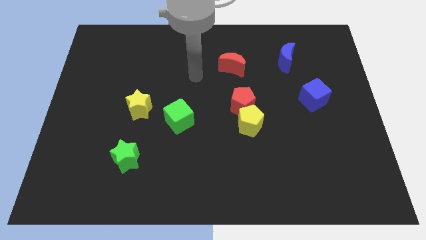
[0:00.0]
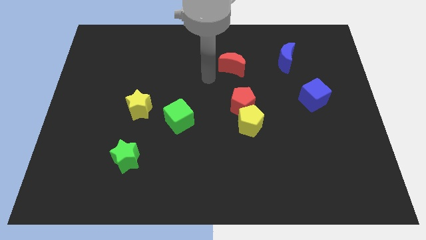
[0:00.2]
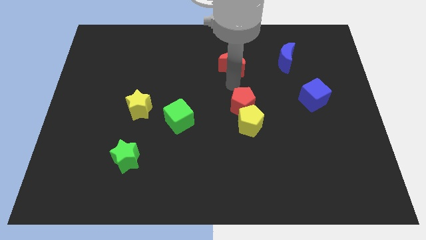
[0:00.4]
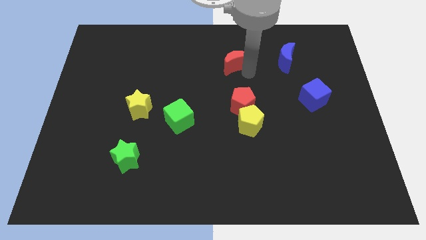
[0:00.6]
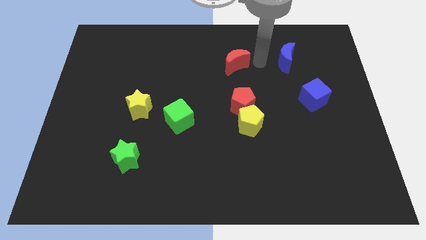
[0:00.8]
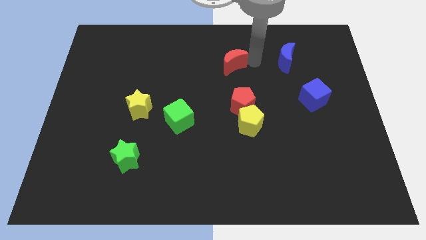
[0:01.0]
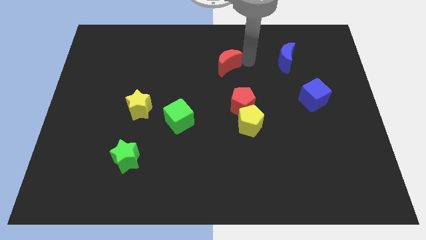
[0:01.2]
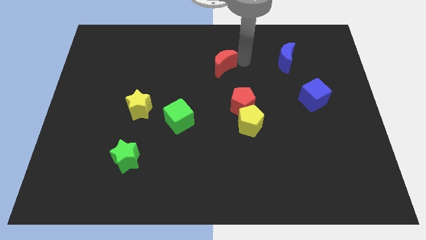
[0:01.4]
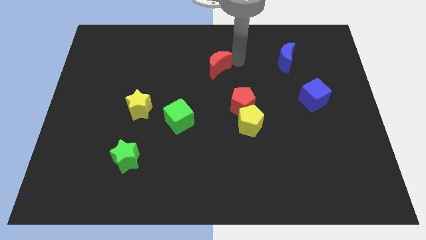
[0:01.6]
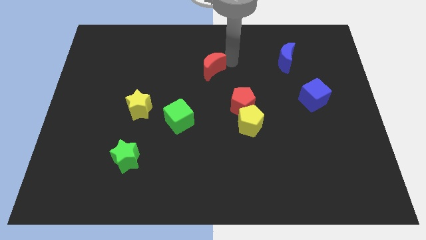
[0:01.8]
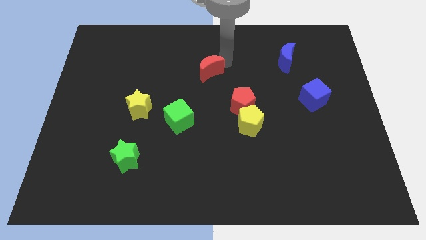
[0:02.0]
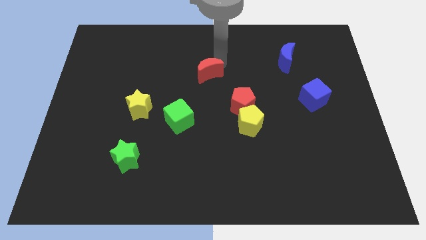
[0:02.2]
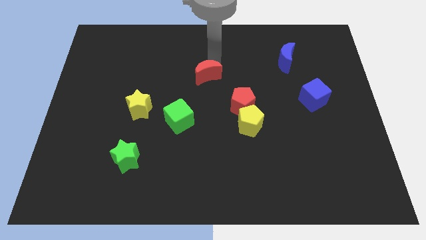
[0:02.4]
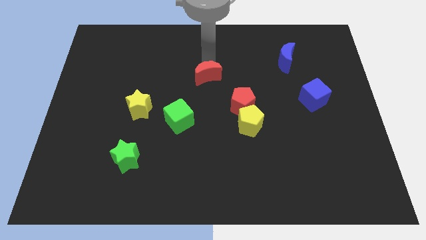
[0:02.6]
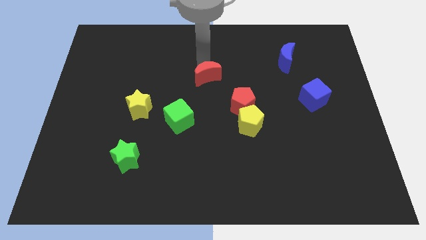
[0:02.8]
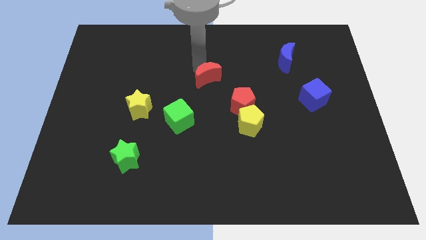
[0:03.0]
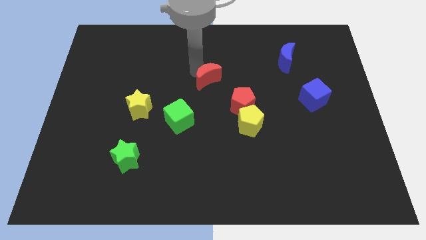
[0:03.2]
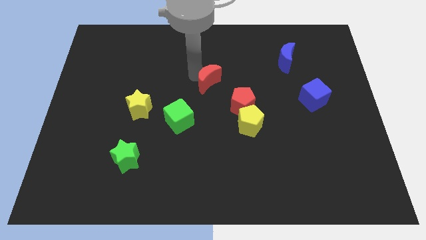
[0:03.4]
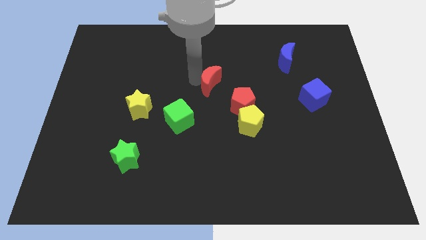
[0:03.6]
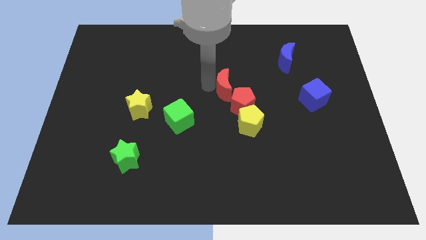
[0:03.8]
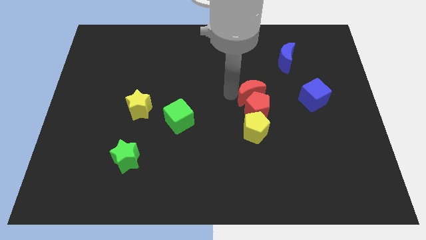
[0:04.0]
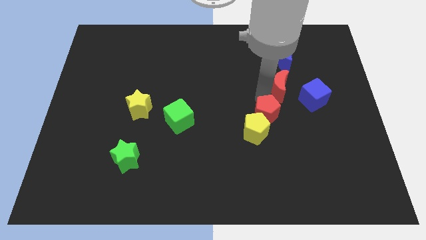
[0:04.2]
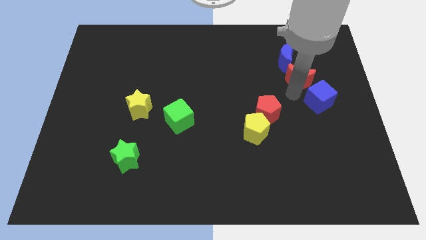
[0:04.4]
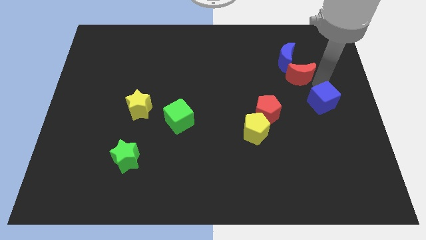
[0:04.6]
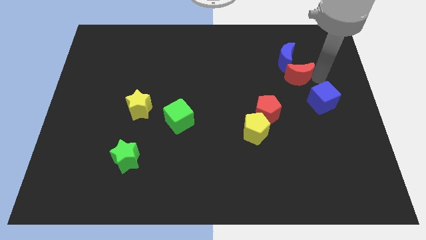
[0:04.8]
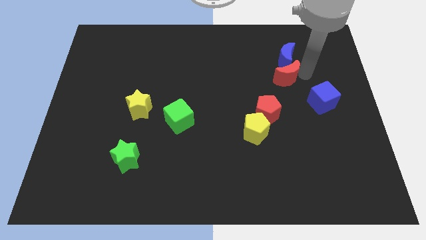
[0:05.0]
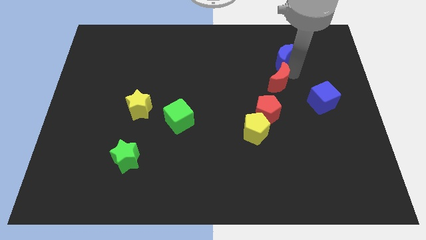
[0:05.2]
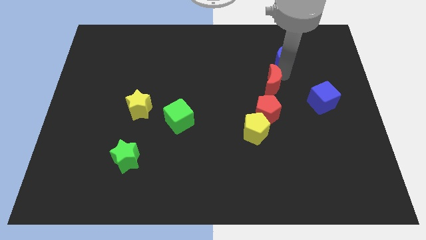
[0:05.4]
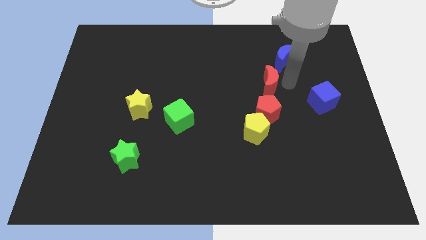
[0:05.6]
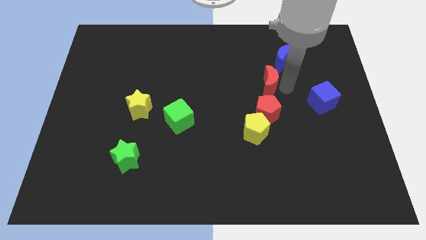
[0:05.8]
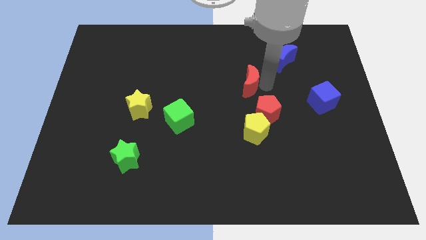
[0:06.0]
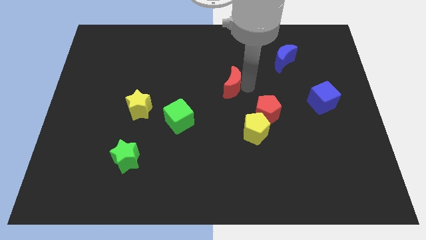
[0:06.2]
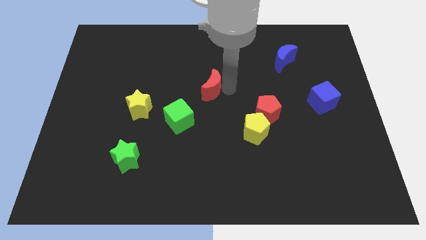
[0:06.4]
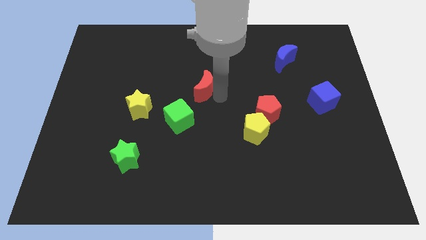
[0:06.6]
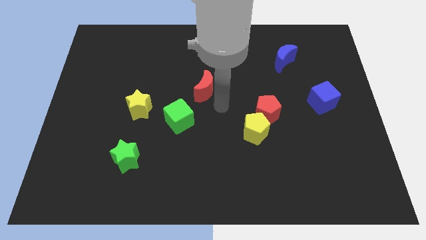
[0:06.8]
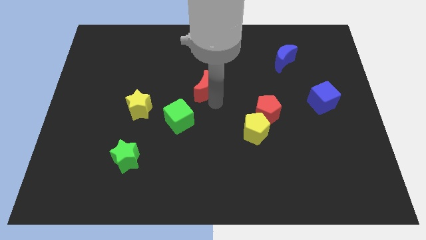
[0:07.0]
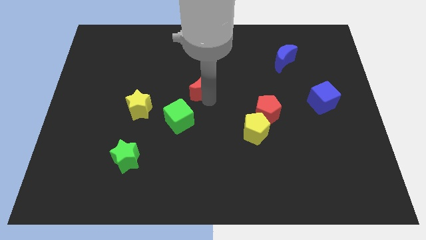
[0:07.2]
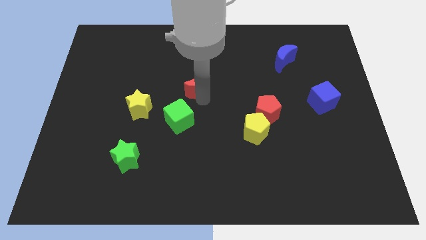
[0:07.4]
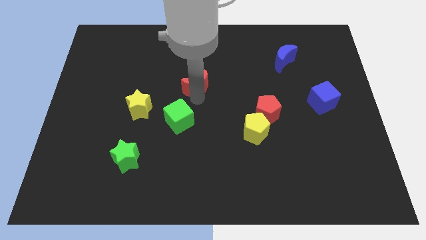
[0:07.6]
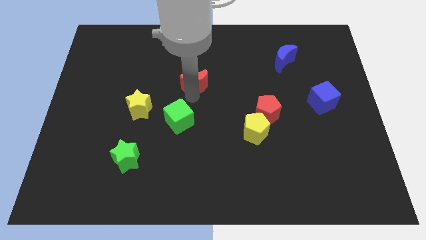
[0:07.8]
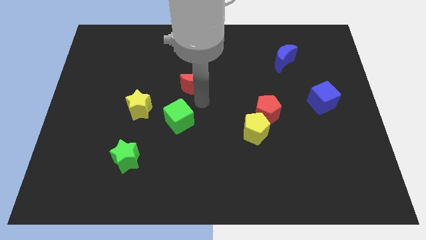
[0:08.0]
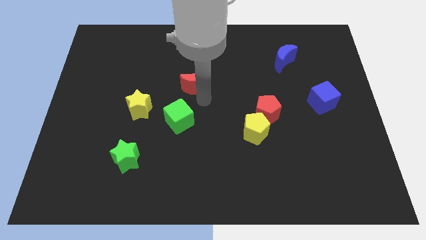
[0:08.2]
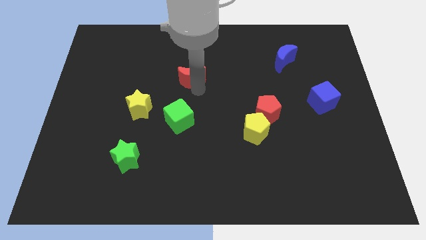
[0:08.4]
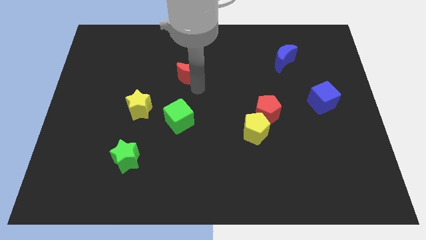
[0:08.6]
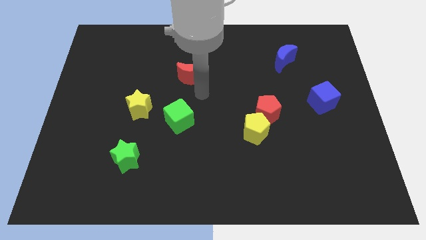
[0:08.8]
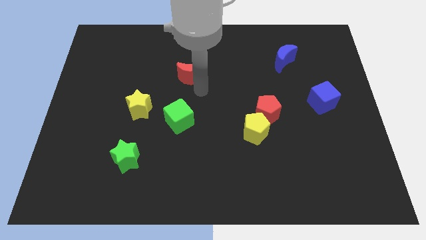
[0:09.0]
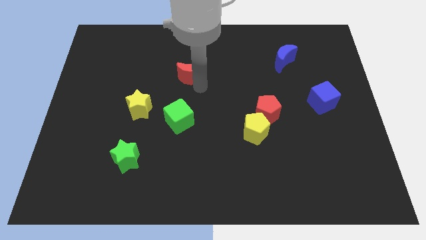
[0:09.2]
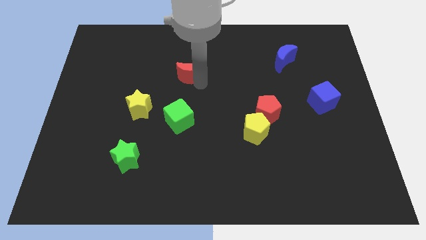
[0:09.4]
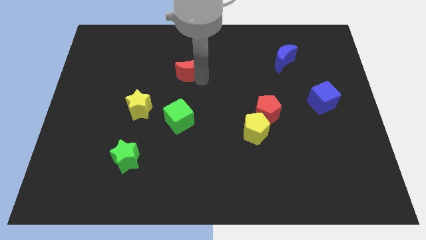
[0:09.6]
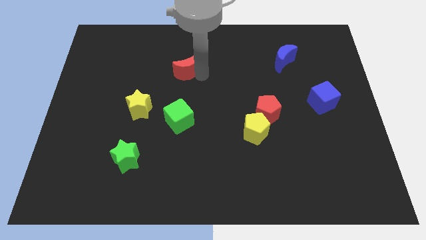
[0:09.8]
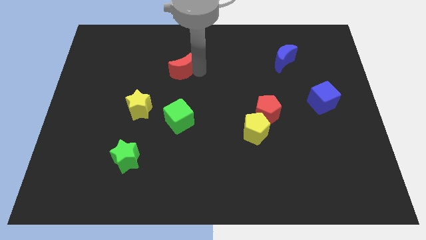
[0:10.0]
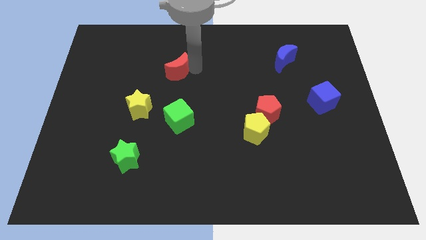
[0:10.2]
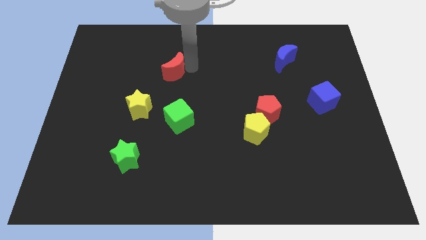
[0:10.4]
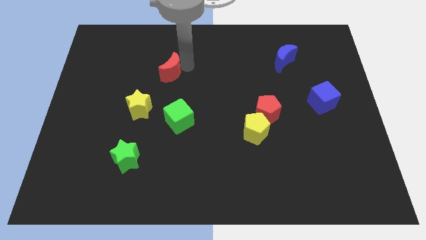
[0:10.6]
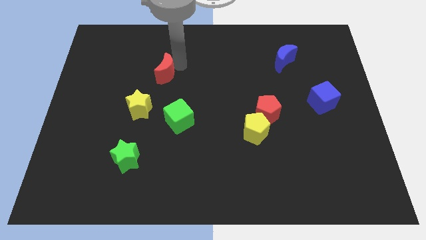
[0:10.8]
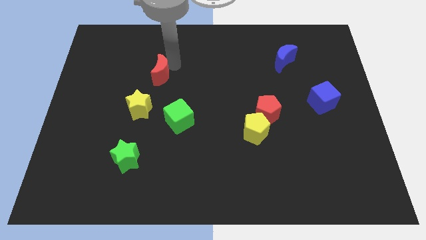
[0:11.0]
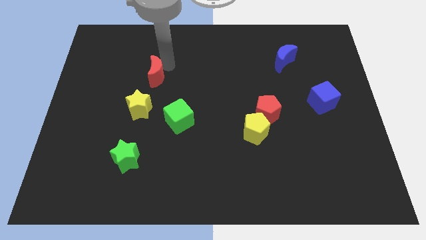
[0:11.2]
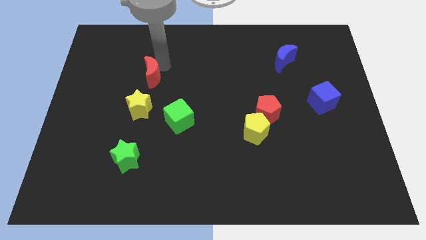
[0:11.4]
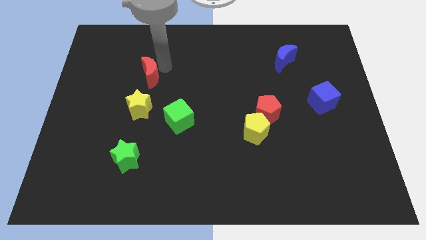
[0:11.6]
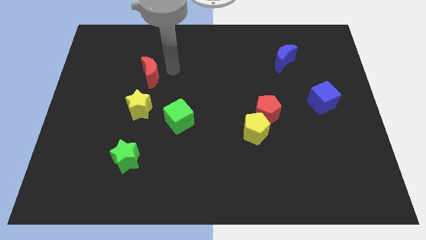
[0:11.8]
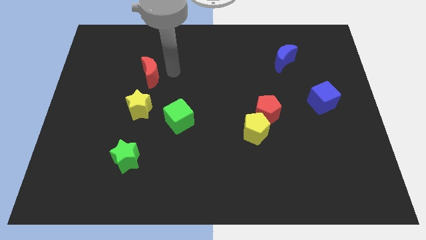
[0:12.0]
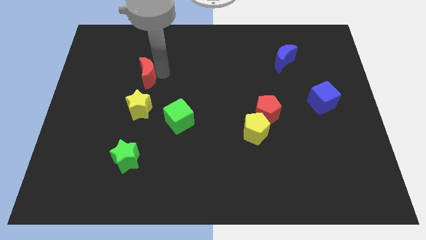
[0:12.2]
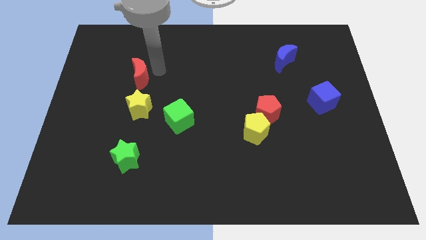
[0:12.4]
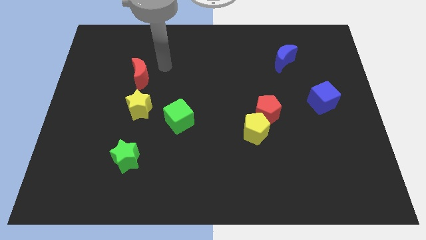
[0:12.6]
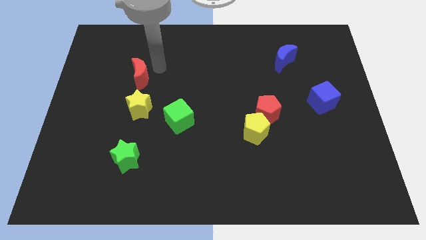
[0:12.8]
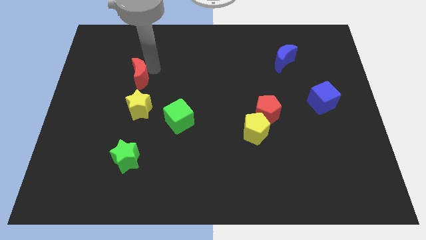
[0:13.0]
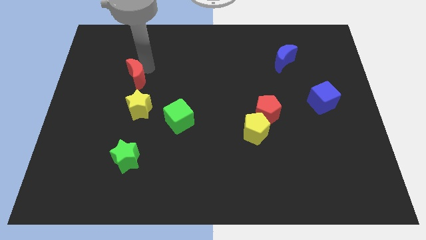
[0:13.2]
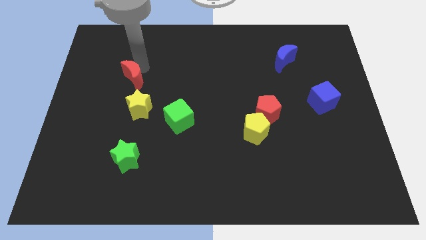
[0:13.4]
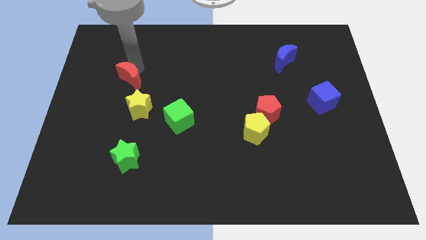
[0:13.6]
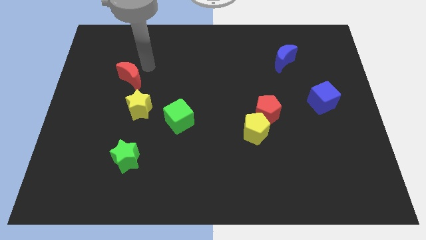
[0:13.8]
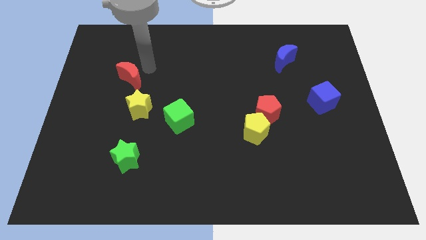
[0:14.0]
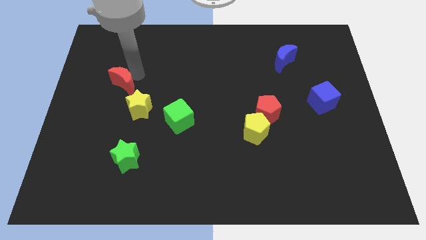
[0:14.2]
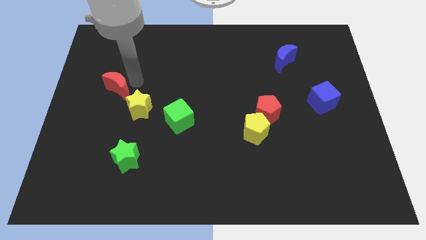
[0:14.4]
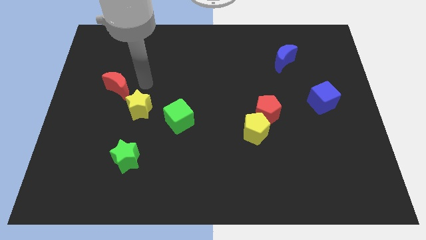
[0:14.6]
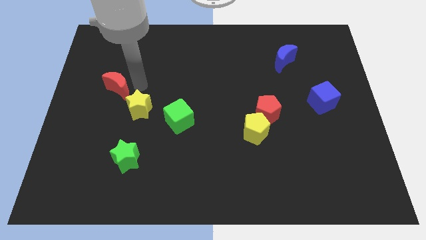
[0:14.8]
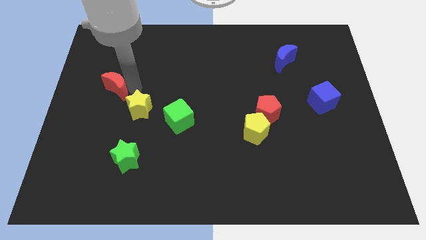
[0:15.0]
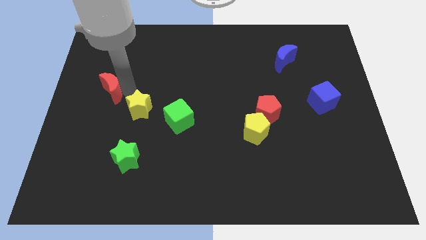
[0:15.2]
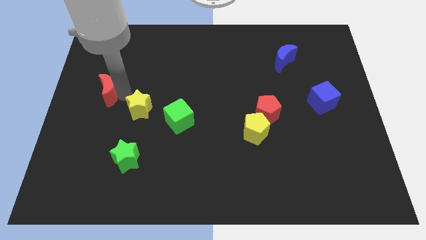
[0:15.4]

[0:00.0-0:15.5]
move the red moon to the left side
